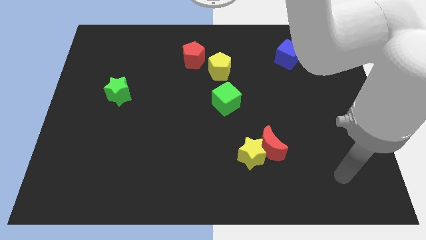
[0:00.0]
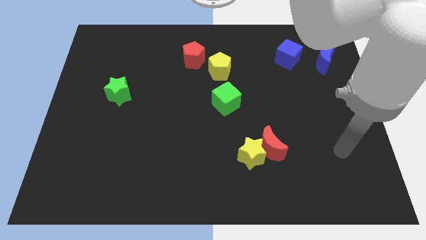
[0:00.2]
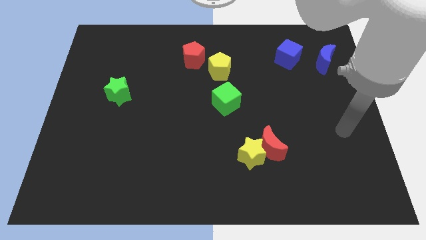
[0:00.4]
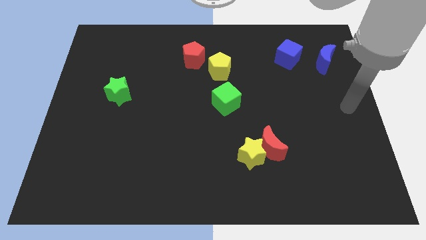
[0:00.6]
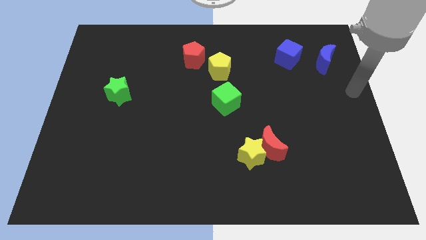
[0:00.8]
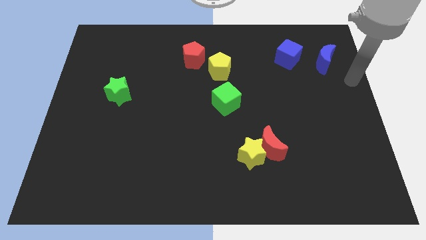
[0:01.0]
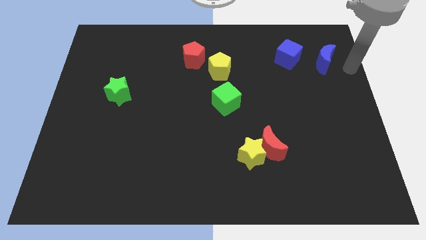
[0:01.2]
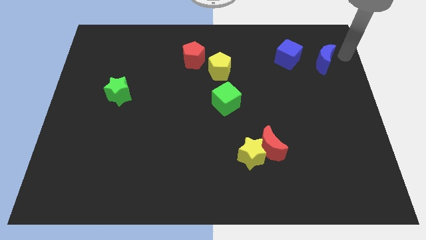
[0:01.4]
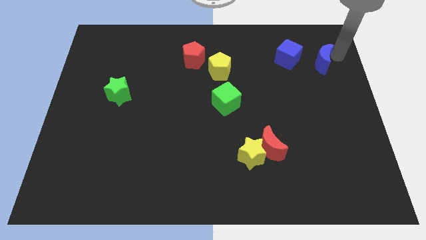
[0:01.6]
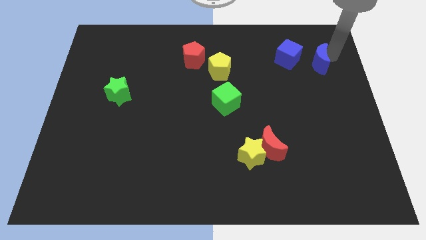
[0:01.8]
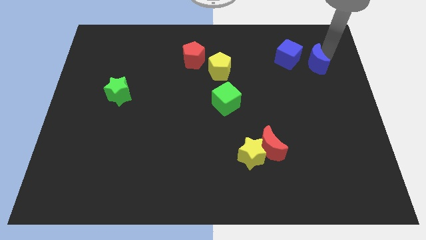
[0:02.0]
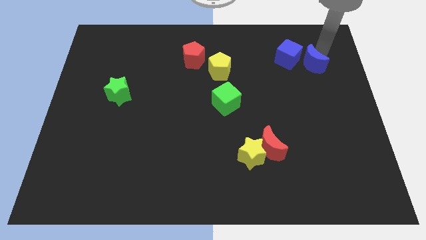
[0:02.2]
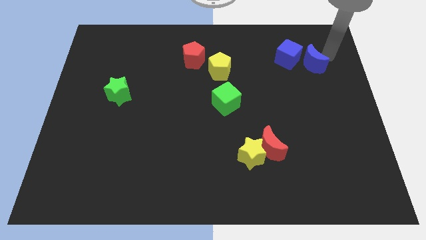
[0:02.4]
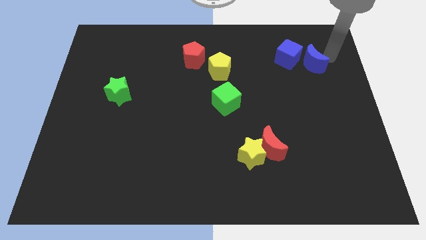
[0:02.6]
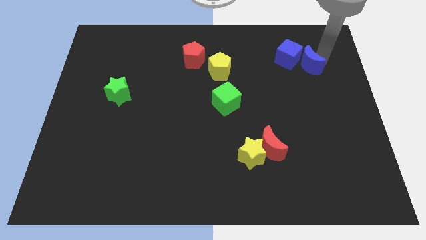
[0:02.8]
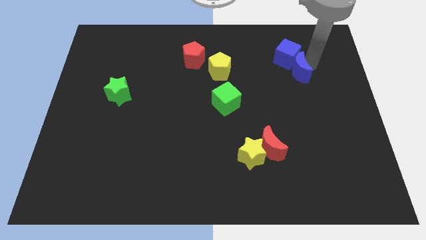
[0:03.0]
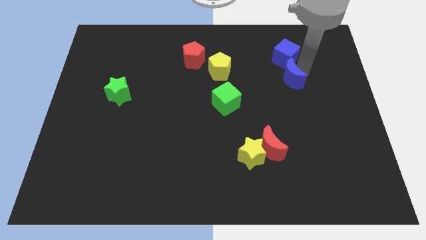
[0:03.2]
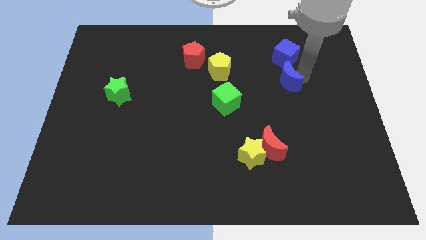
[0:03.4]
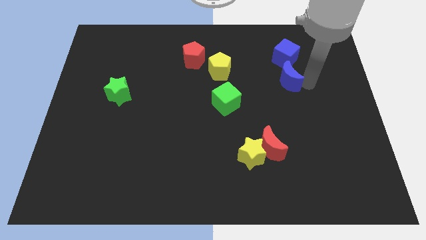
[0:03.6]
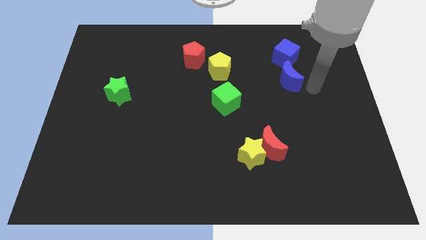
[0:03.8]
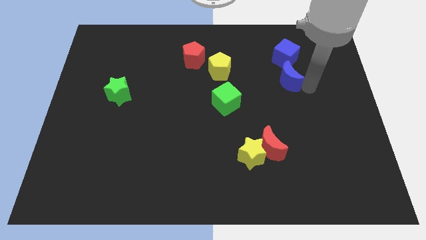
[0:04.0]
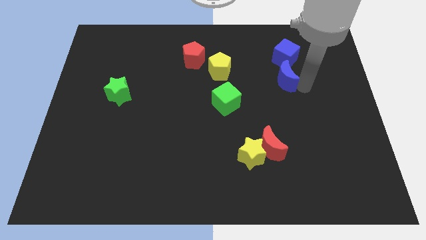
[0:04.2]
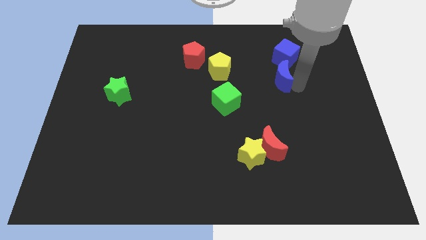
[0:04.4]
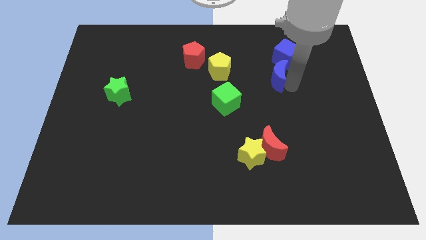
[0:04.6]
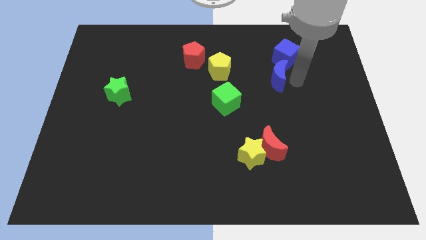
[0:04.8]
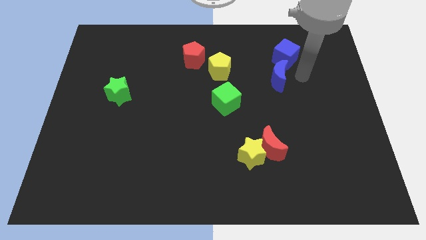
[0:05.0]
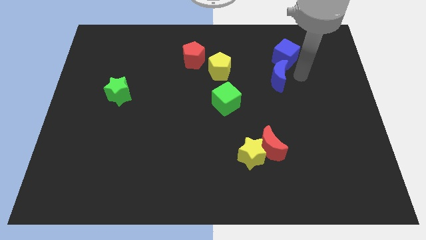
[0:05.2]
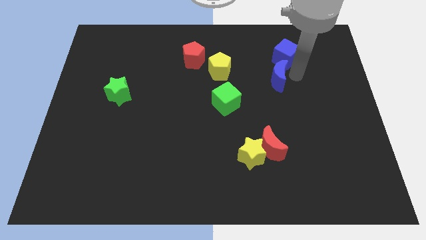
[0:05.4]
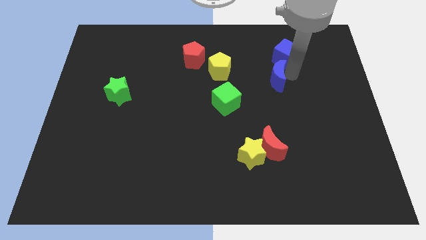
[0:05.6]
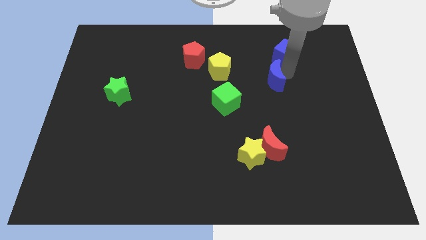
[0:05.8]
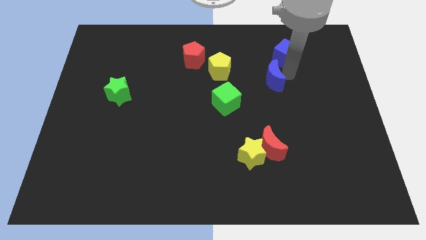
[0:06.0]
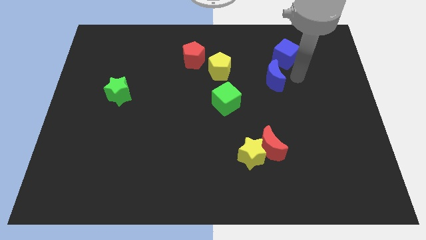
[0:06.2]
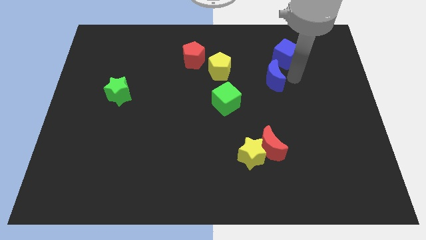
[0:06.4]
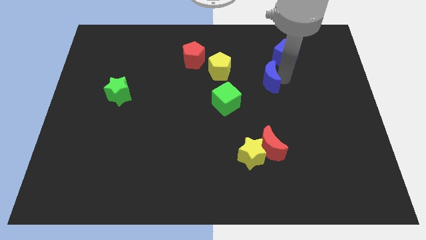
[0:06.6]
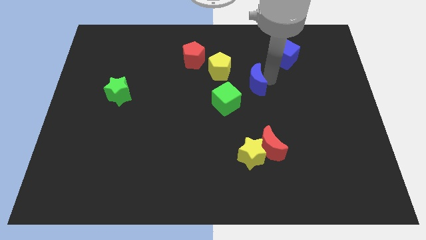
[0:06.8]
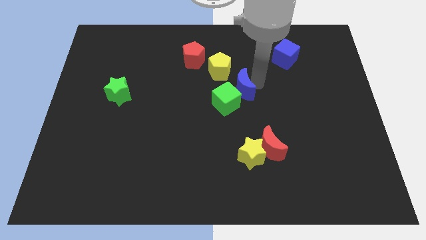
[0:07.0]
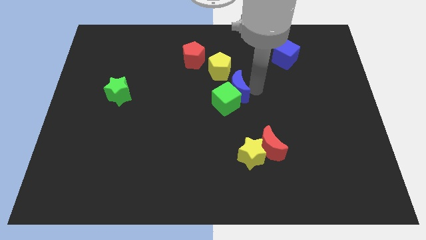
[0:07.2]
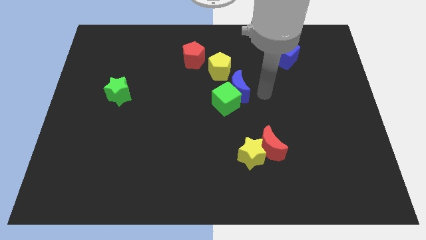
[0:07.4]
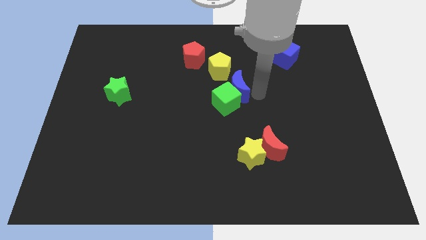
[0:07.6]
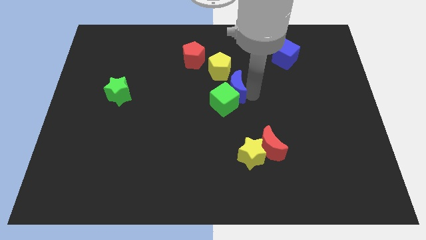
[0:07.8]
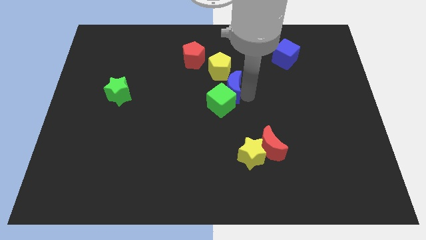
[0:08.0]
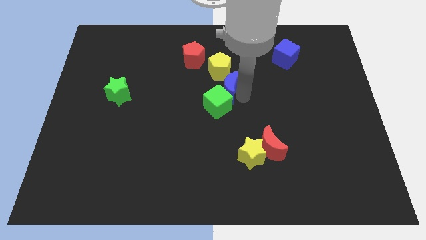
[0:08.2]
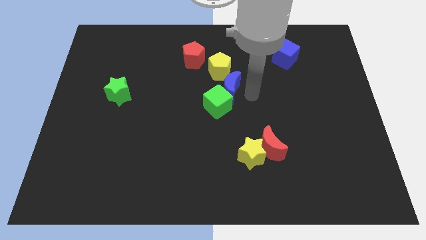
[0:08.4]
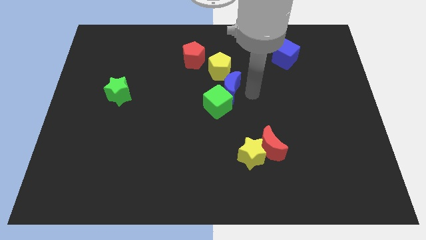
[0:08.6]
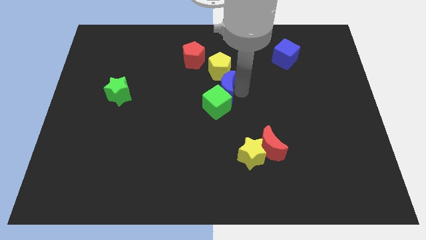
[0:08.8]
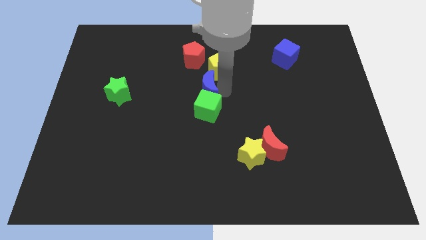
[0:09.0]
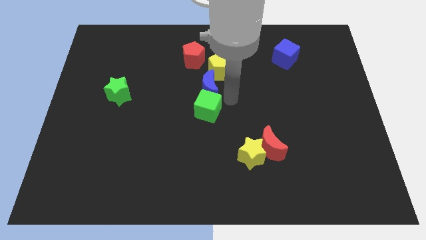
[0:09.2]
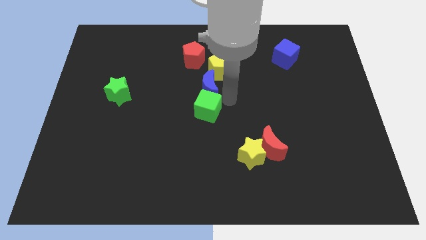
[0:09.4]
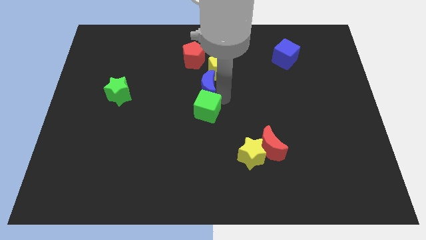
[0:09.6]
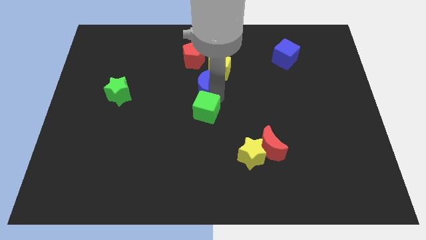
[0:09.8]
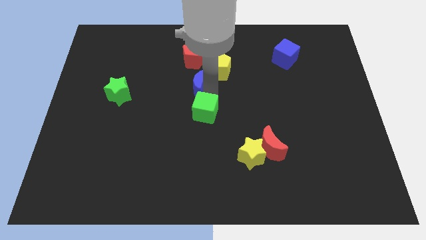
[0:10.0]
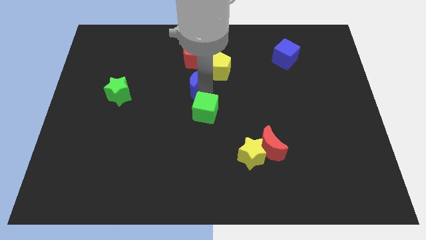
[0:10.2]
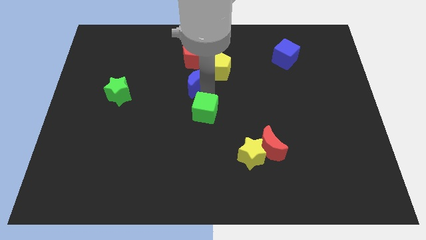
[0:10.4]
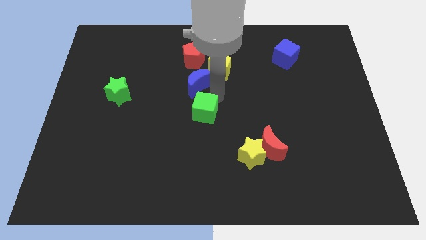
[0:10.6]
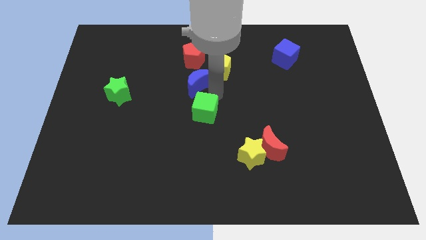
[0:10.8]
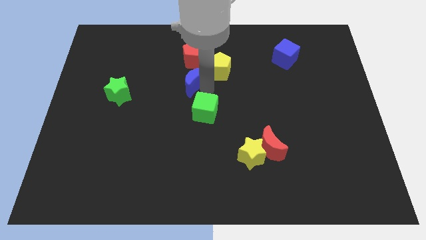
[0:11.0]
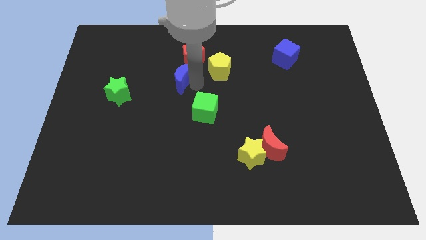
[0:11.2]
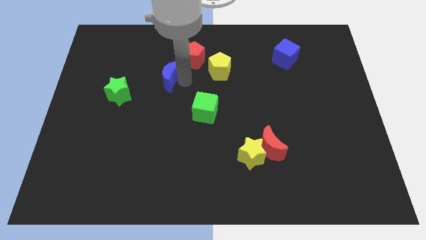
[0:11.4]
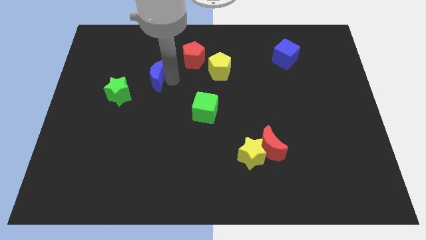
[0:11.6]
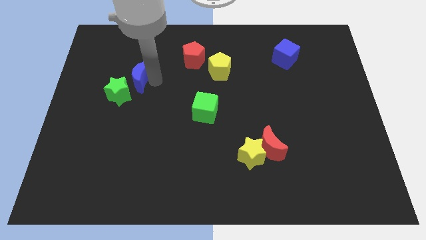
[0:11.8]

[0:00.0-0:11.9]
push the blue moon to the top of the green star

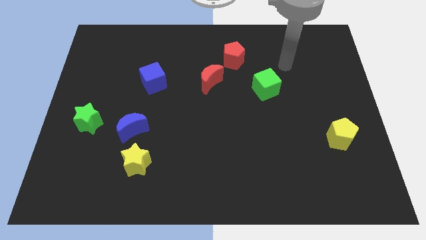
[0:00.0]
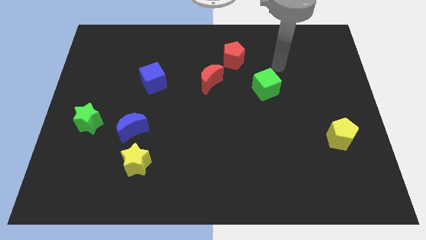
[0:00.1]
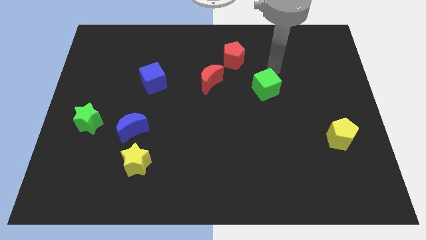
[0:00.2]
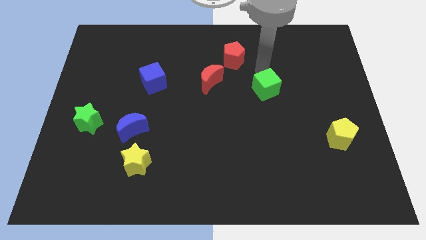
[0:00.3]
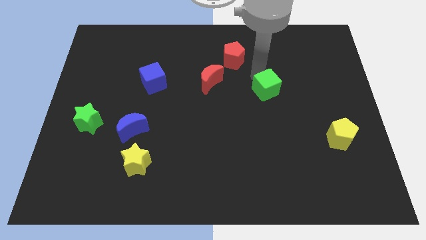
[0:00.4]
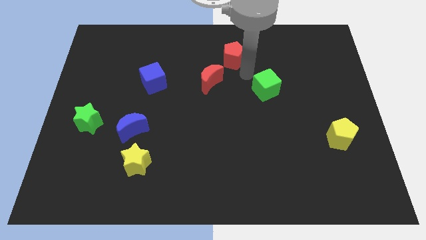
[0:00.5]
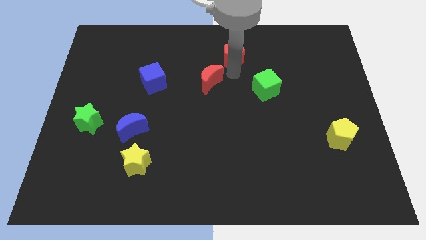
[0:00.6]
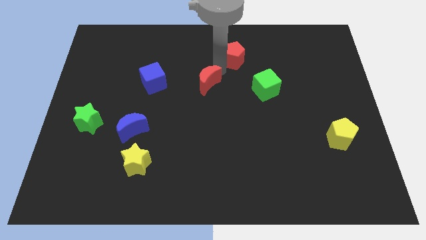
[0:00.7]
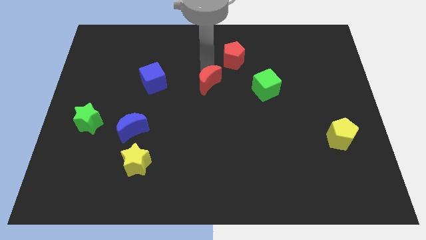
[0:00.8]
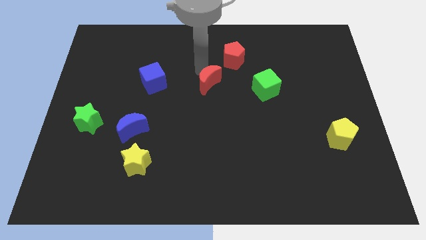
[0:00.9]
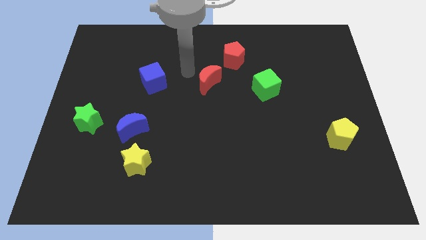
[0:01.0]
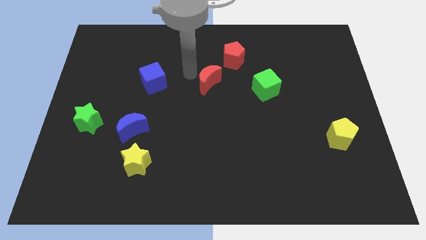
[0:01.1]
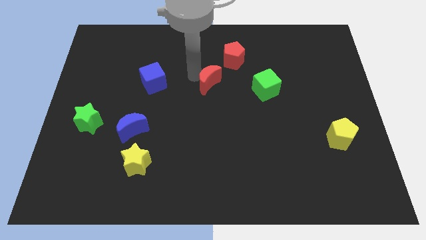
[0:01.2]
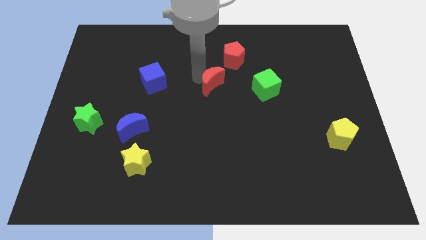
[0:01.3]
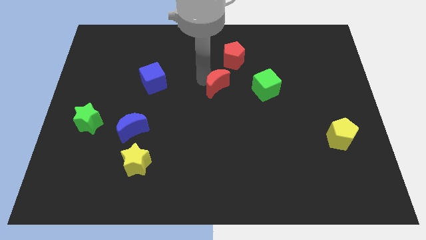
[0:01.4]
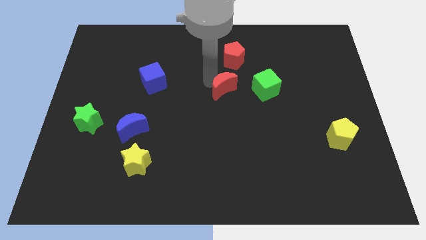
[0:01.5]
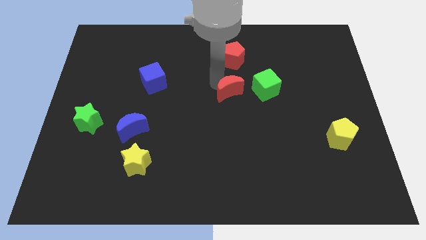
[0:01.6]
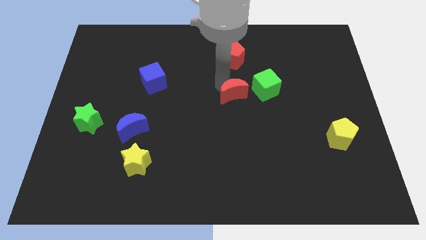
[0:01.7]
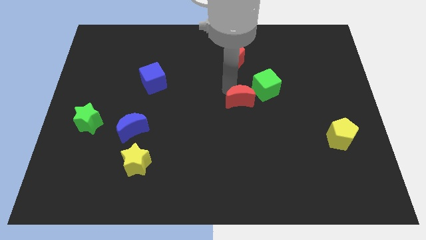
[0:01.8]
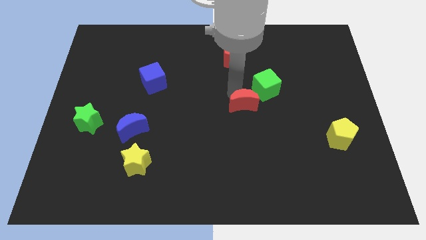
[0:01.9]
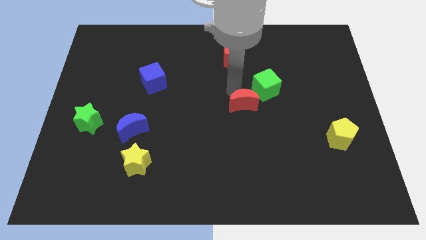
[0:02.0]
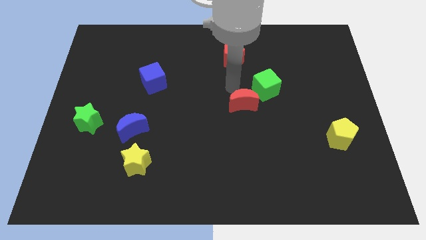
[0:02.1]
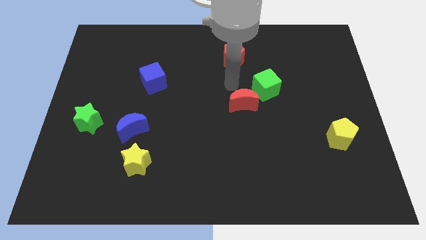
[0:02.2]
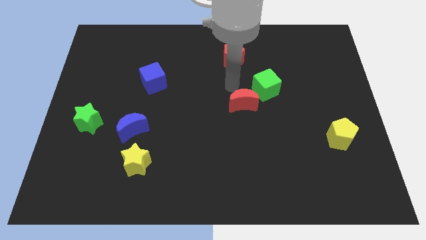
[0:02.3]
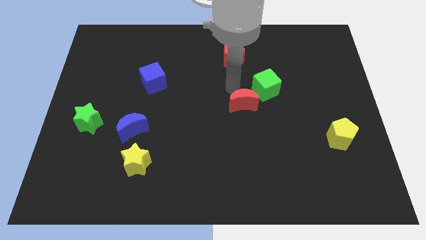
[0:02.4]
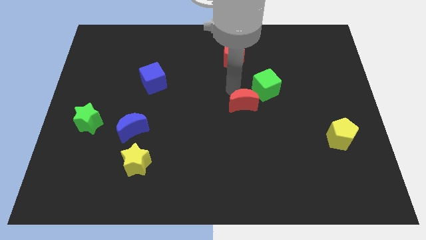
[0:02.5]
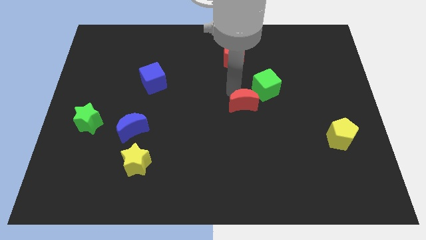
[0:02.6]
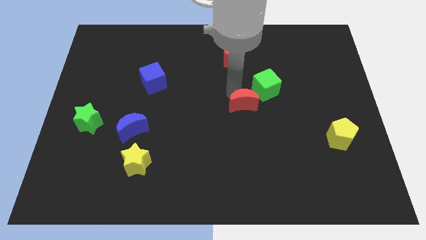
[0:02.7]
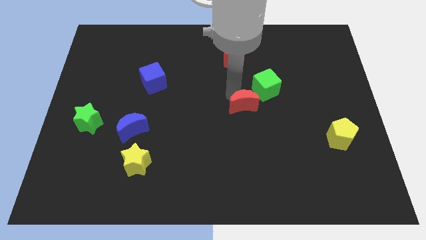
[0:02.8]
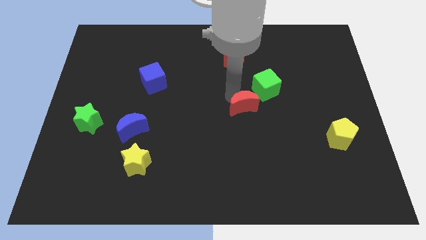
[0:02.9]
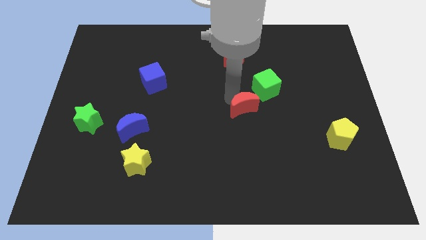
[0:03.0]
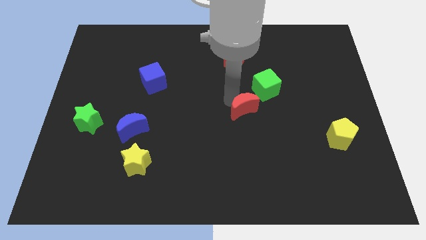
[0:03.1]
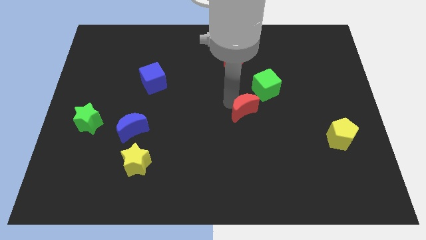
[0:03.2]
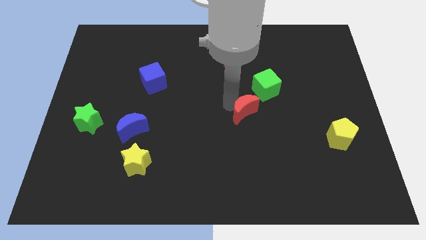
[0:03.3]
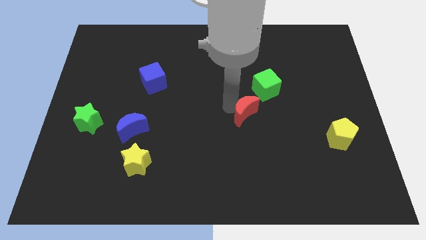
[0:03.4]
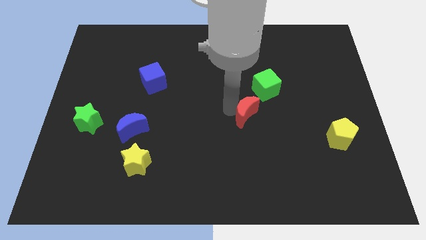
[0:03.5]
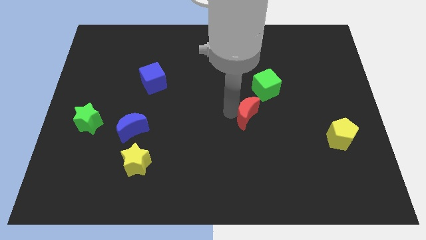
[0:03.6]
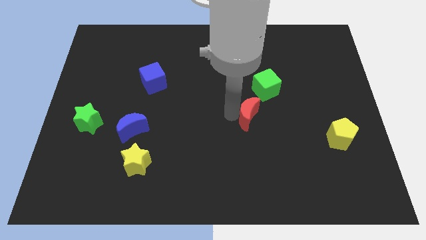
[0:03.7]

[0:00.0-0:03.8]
slide the red moon below the green cube
